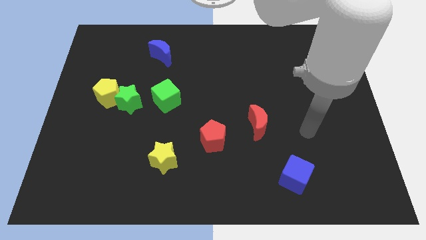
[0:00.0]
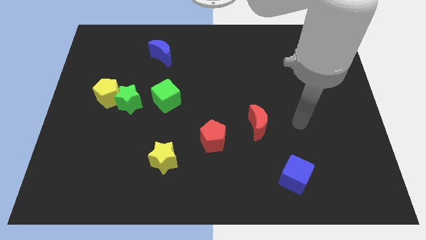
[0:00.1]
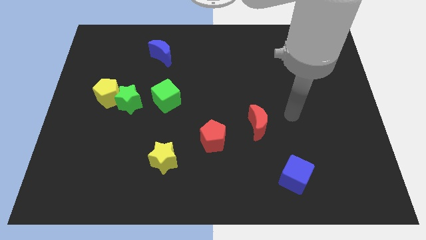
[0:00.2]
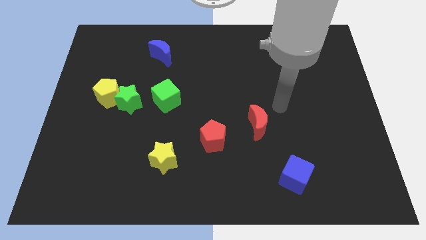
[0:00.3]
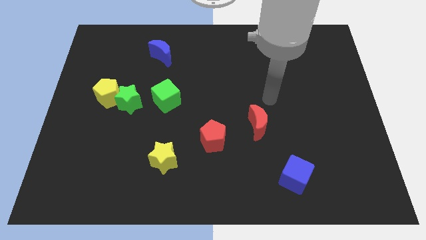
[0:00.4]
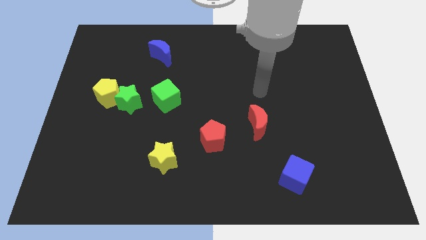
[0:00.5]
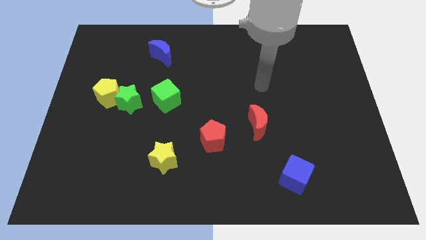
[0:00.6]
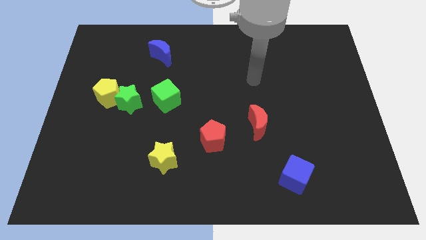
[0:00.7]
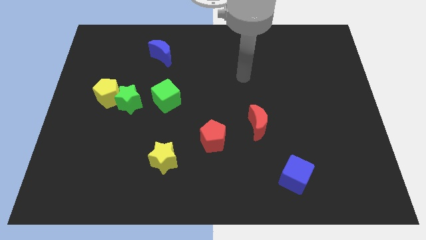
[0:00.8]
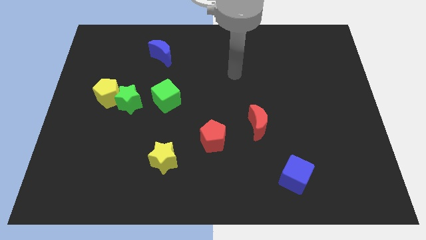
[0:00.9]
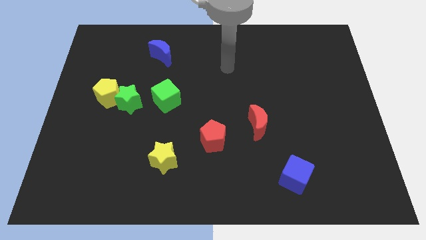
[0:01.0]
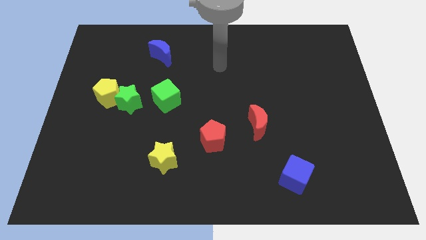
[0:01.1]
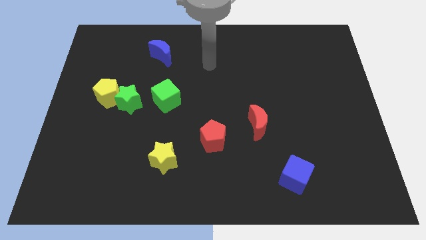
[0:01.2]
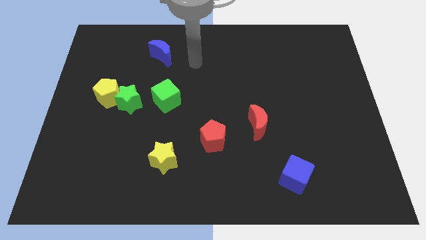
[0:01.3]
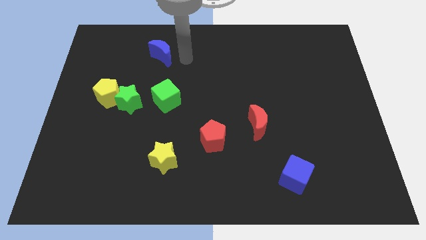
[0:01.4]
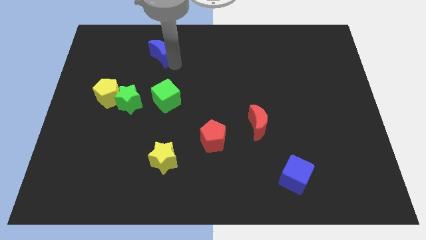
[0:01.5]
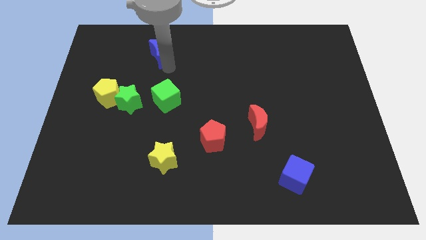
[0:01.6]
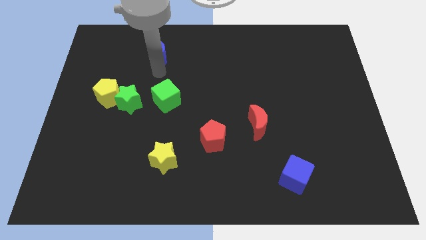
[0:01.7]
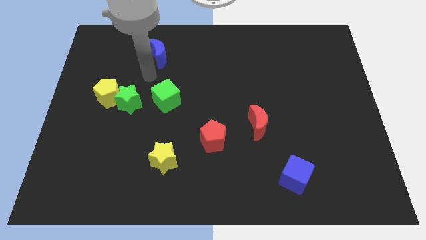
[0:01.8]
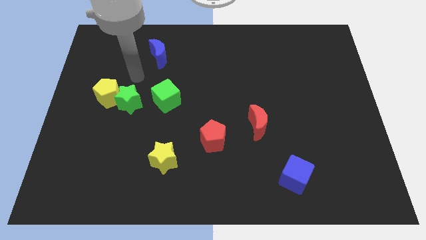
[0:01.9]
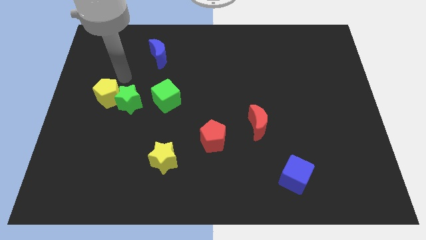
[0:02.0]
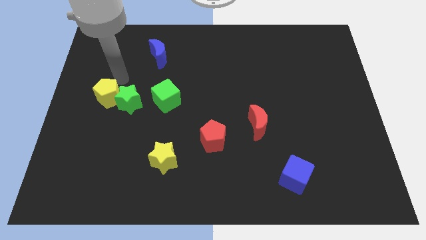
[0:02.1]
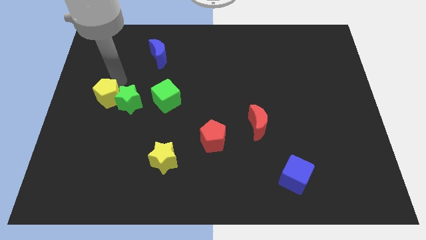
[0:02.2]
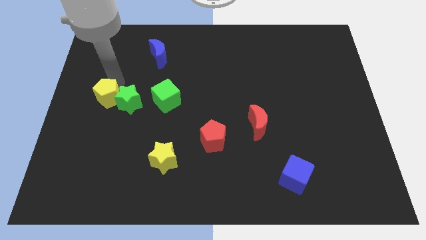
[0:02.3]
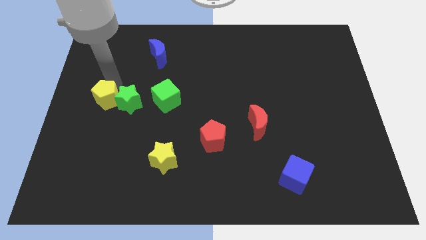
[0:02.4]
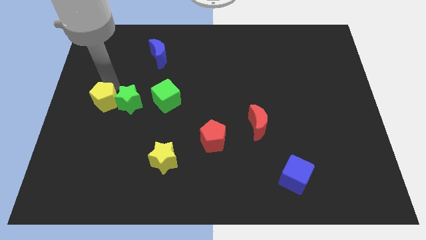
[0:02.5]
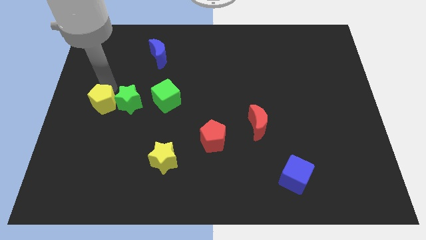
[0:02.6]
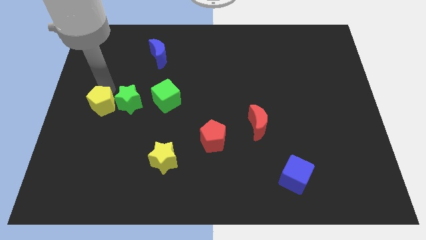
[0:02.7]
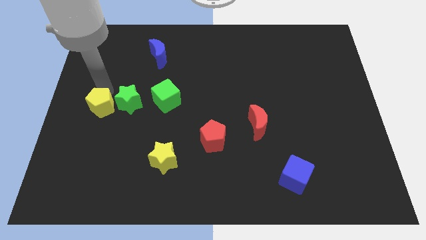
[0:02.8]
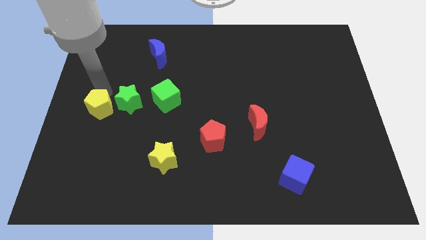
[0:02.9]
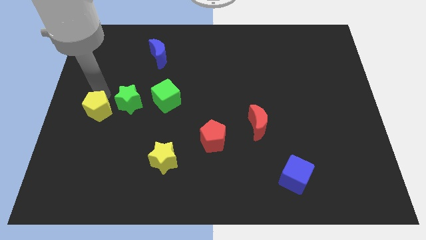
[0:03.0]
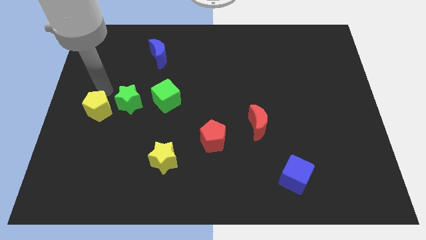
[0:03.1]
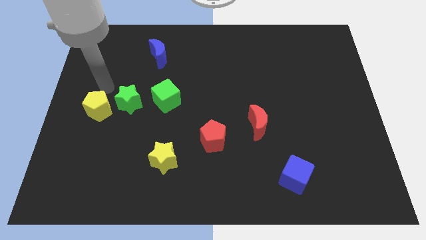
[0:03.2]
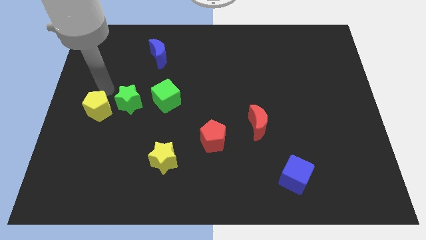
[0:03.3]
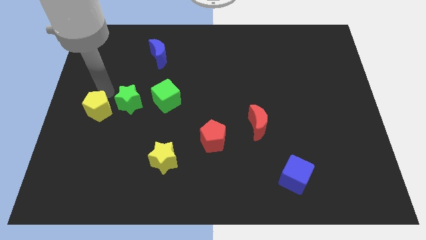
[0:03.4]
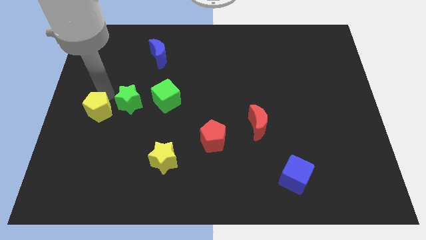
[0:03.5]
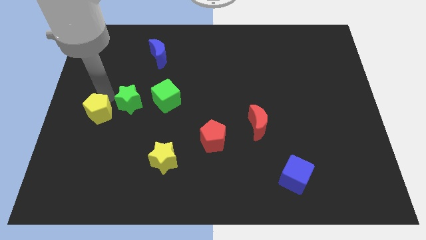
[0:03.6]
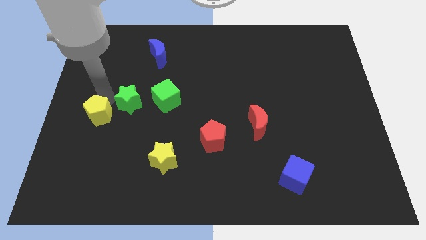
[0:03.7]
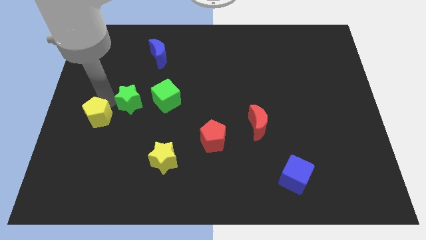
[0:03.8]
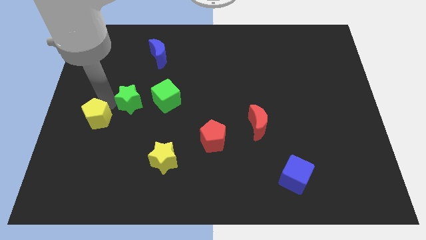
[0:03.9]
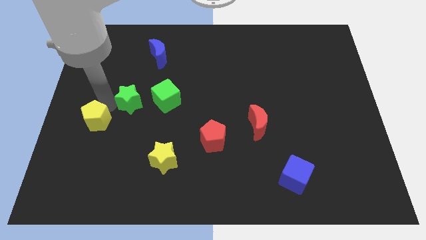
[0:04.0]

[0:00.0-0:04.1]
move the yellow pentagon down a little

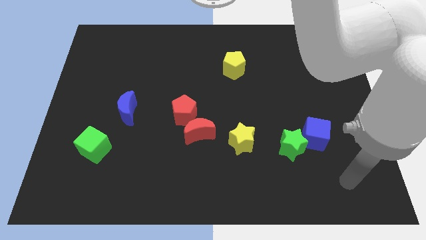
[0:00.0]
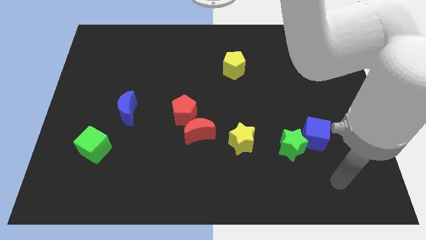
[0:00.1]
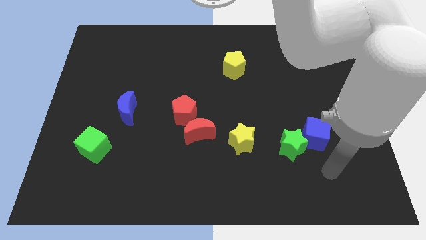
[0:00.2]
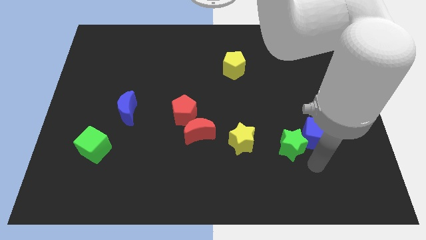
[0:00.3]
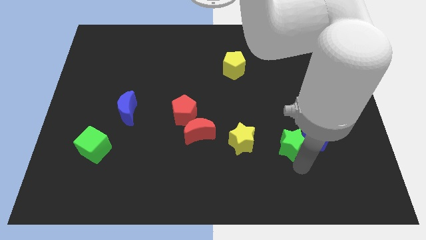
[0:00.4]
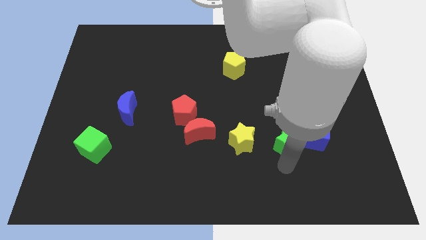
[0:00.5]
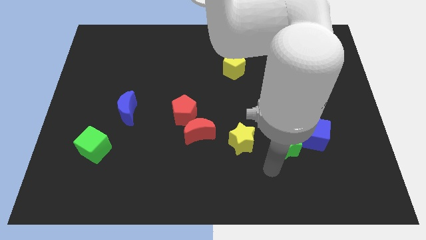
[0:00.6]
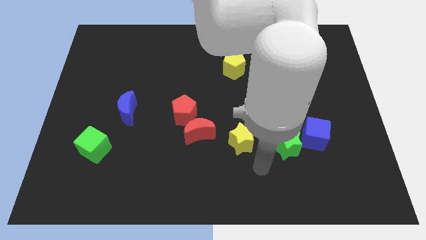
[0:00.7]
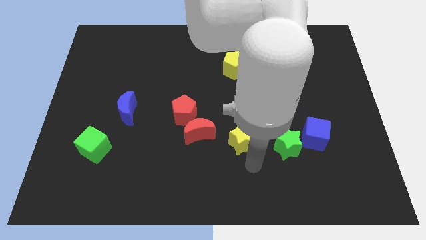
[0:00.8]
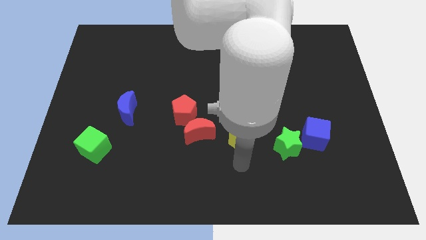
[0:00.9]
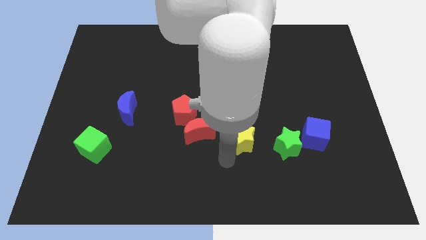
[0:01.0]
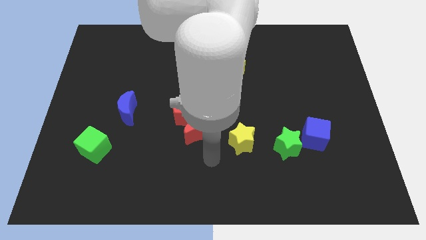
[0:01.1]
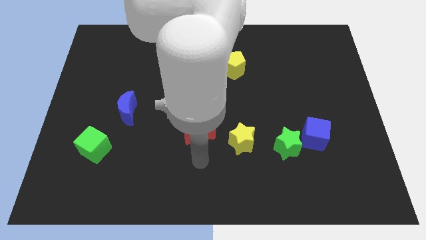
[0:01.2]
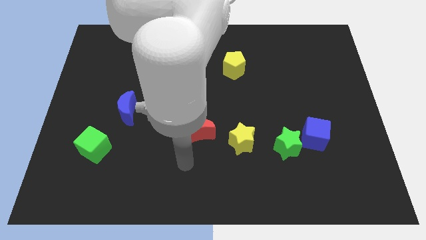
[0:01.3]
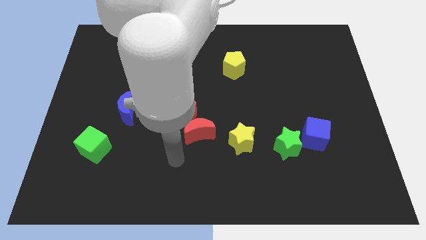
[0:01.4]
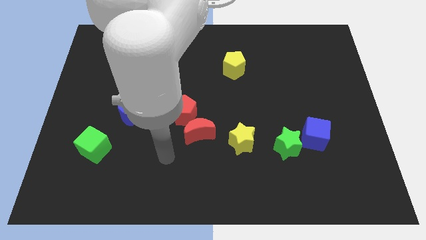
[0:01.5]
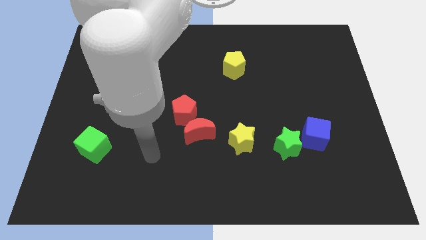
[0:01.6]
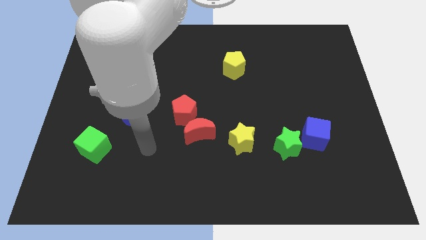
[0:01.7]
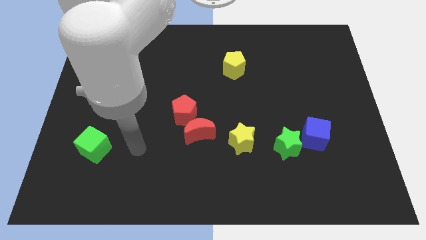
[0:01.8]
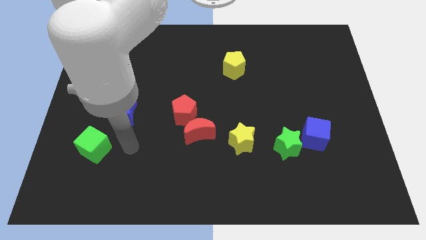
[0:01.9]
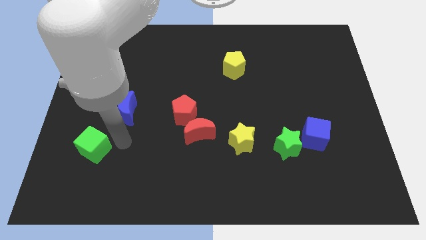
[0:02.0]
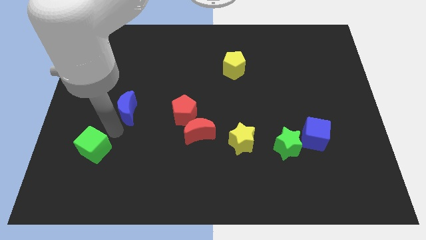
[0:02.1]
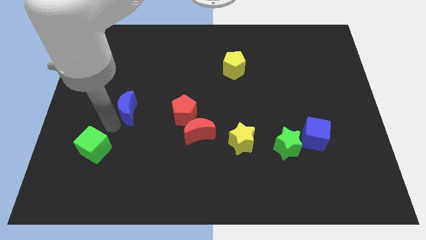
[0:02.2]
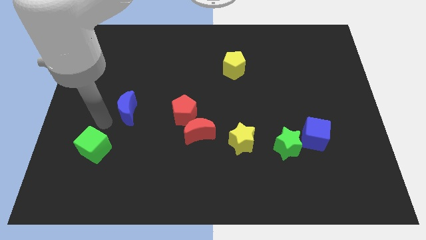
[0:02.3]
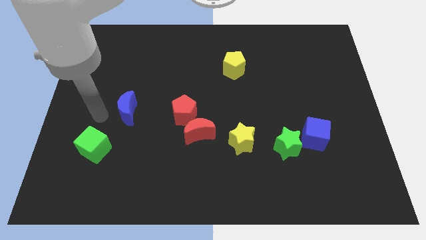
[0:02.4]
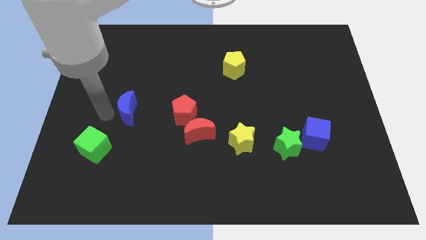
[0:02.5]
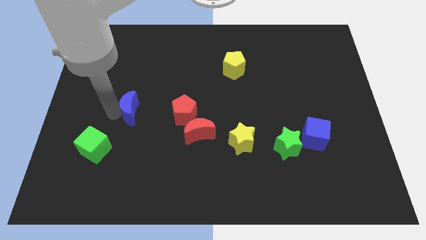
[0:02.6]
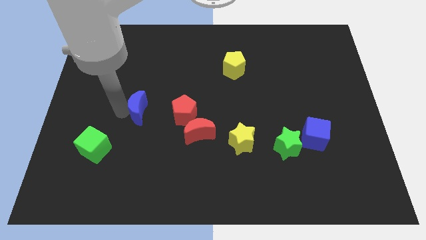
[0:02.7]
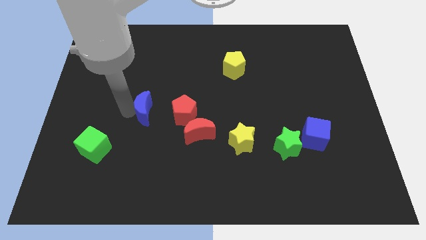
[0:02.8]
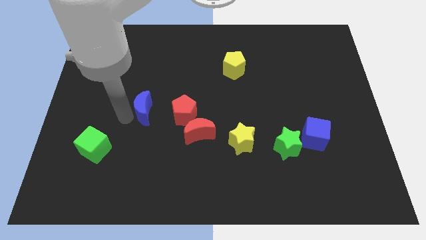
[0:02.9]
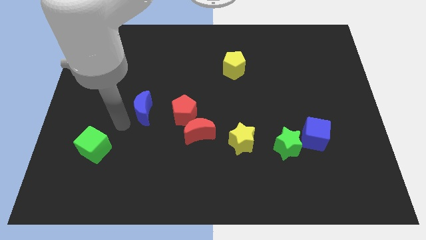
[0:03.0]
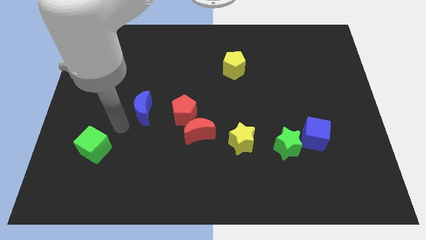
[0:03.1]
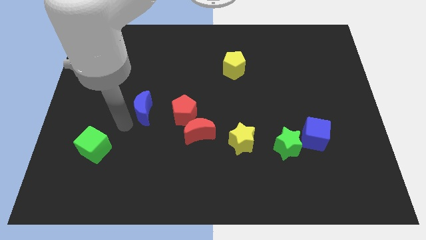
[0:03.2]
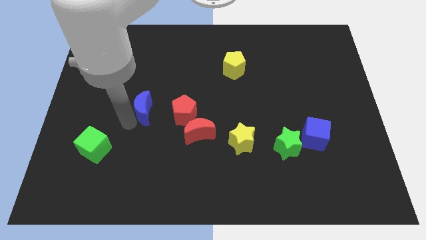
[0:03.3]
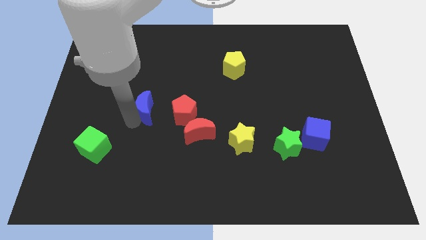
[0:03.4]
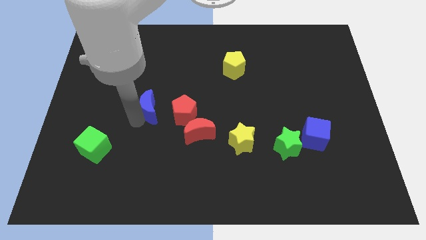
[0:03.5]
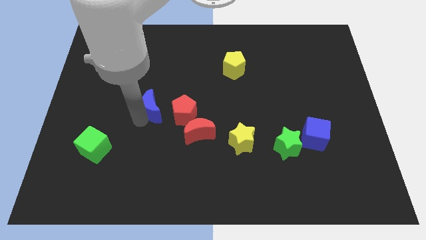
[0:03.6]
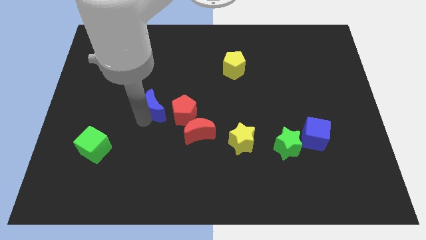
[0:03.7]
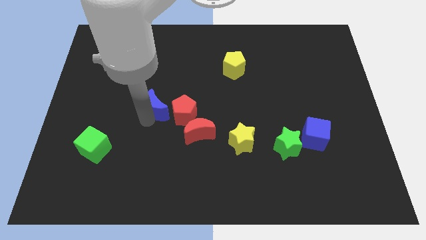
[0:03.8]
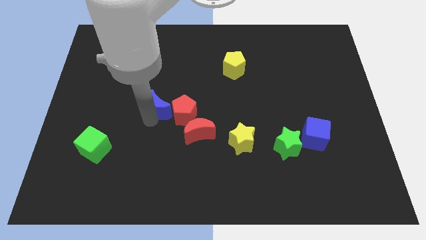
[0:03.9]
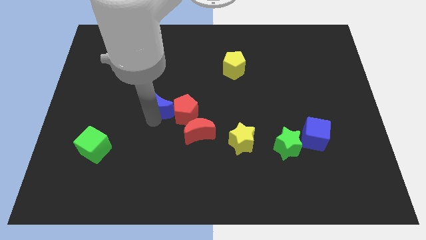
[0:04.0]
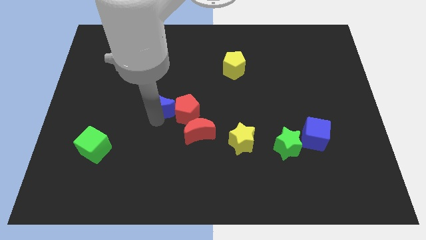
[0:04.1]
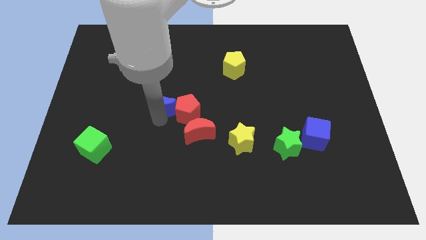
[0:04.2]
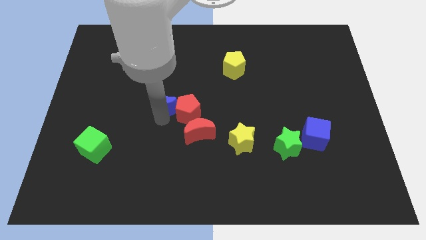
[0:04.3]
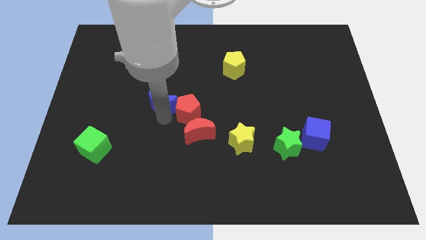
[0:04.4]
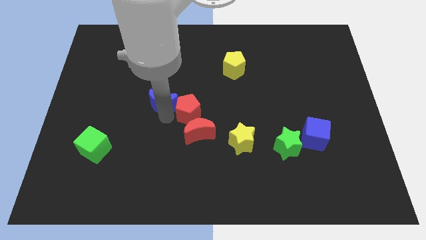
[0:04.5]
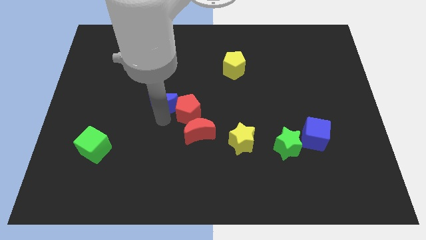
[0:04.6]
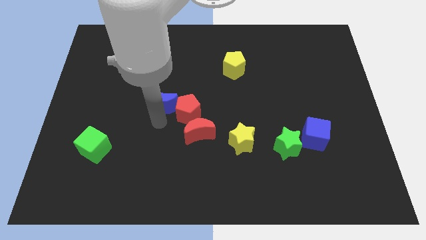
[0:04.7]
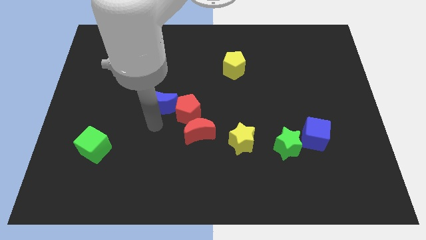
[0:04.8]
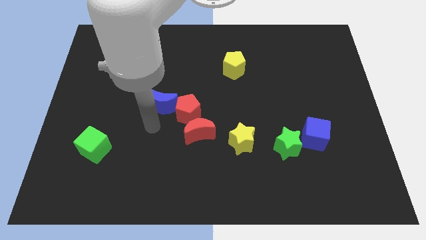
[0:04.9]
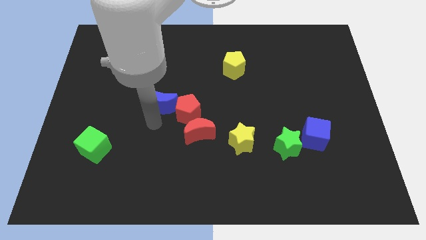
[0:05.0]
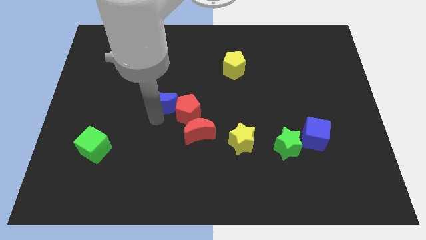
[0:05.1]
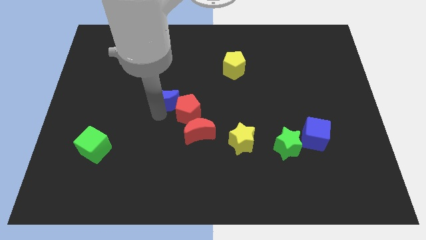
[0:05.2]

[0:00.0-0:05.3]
move the blue moon up and then right a little bit
